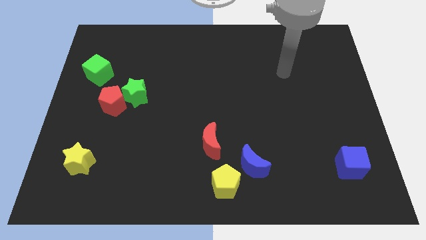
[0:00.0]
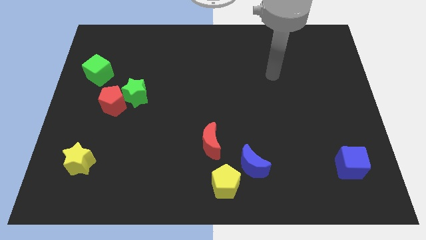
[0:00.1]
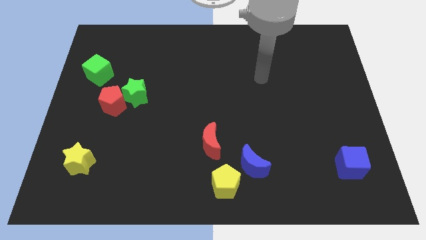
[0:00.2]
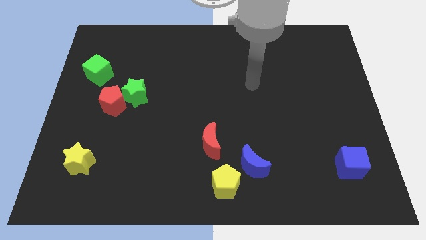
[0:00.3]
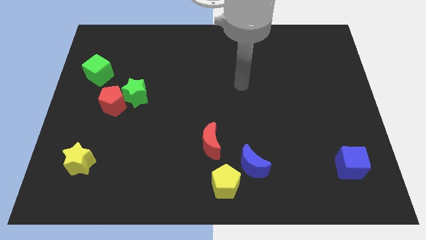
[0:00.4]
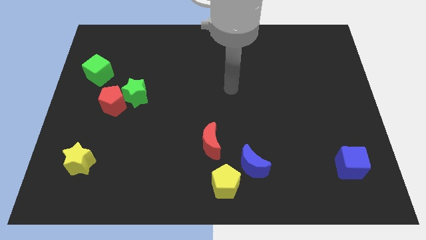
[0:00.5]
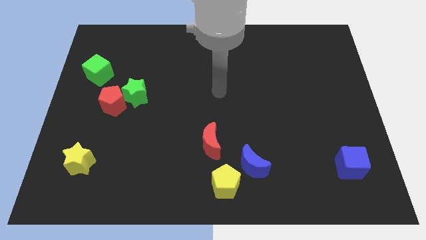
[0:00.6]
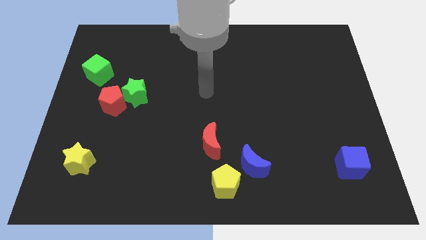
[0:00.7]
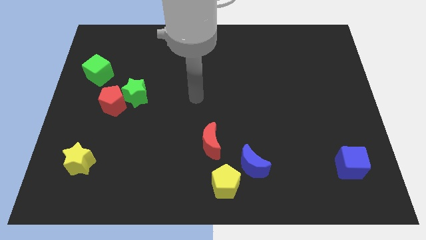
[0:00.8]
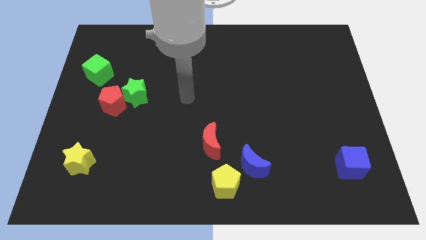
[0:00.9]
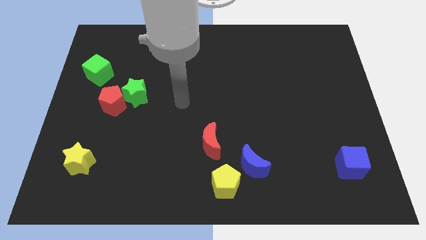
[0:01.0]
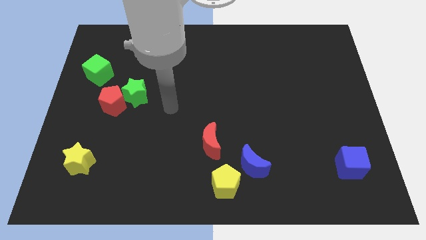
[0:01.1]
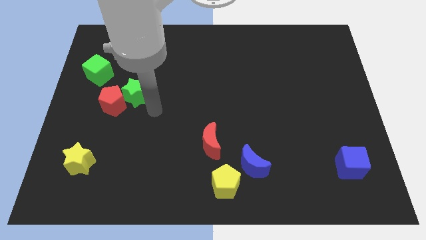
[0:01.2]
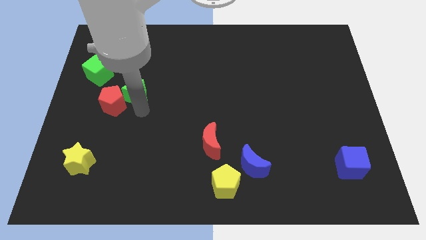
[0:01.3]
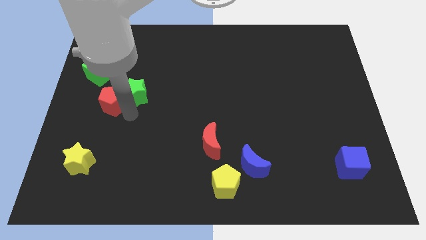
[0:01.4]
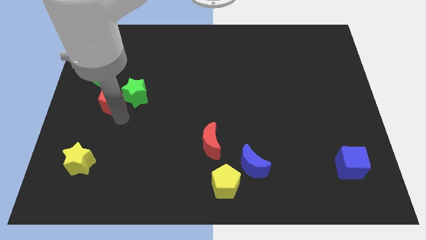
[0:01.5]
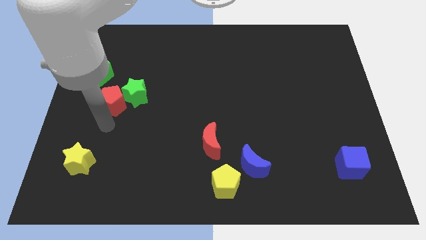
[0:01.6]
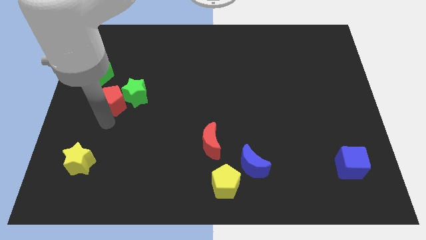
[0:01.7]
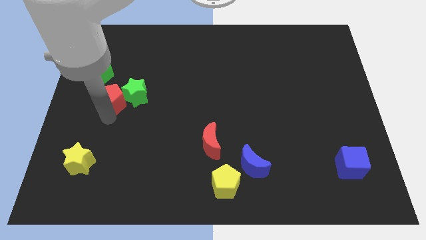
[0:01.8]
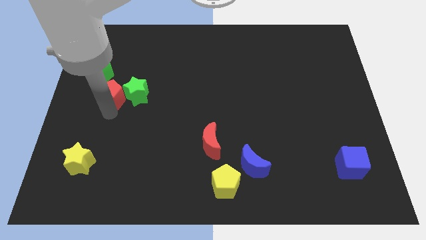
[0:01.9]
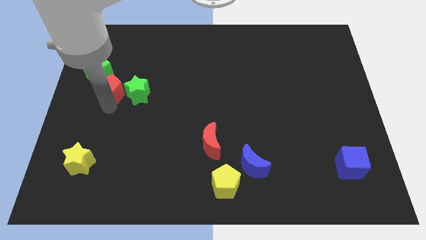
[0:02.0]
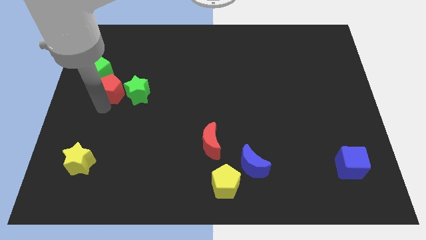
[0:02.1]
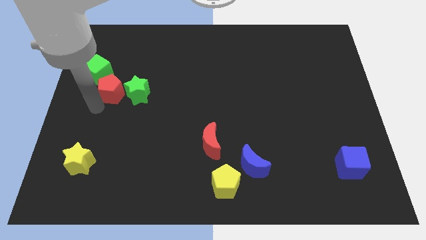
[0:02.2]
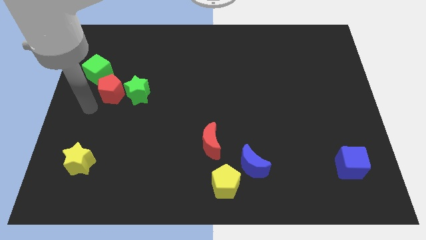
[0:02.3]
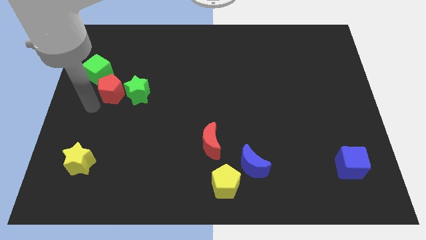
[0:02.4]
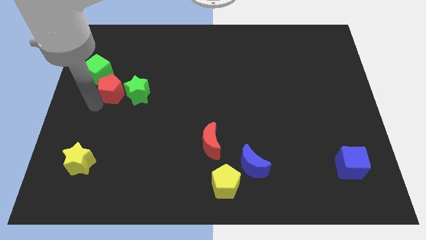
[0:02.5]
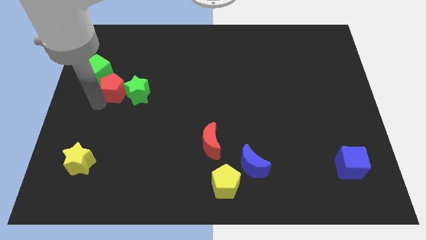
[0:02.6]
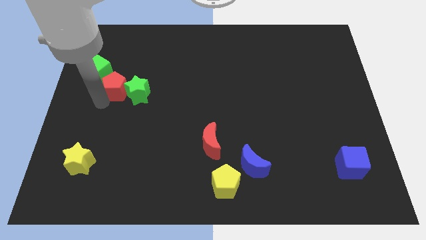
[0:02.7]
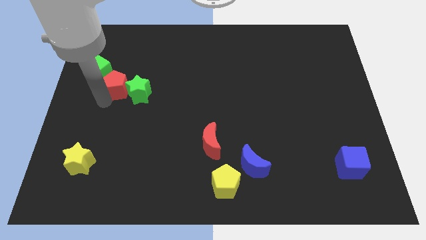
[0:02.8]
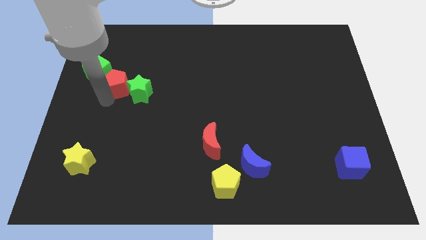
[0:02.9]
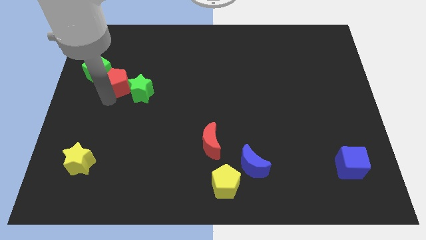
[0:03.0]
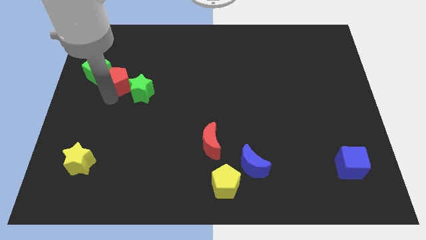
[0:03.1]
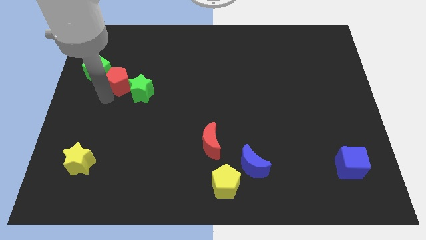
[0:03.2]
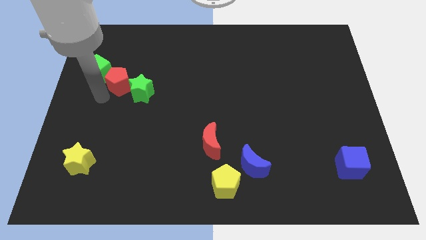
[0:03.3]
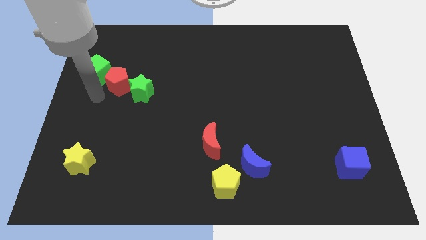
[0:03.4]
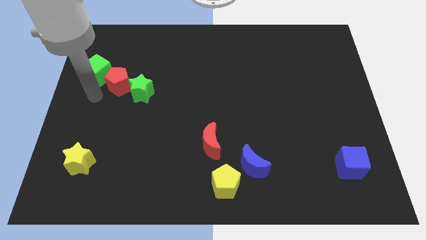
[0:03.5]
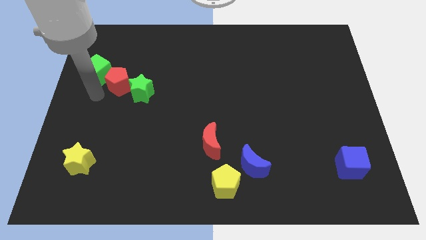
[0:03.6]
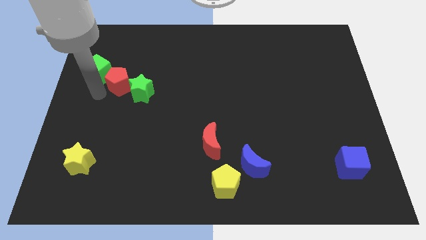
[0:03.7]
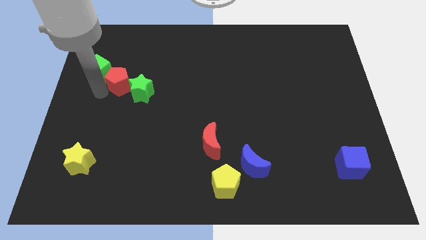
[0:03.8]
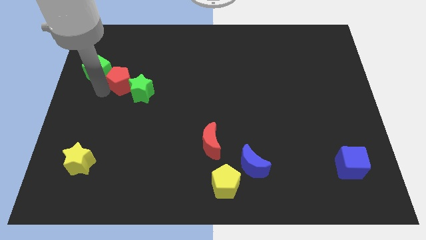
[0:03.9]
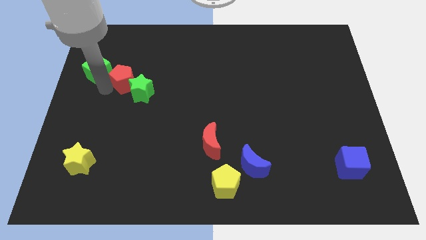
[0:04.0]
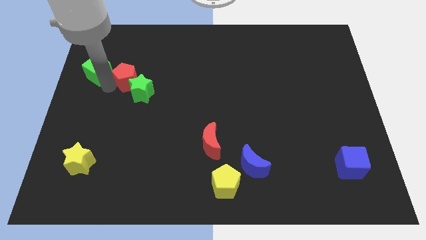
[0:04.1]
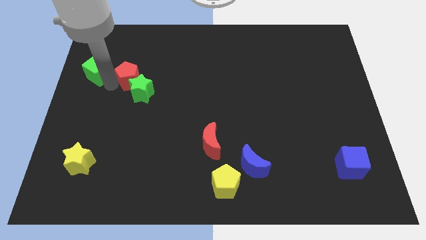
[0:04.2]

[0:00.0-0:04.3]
slide the red pentagon diagonally upwards and right a little bit

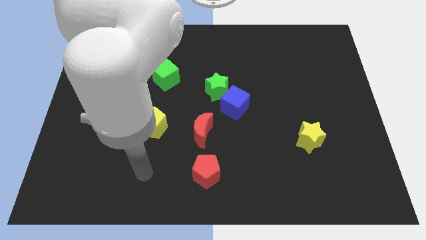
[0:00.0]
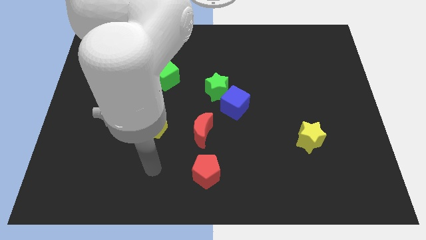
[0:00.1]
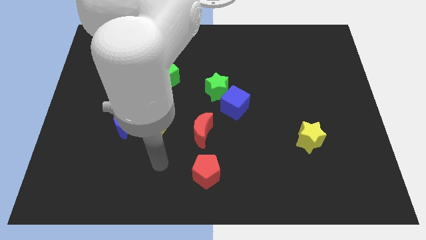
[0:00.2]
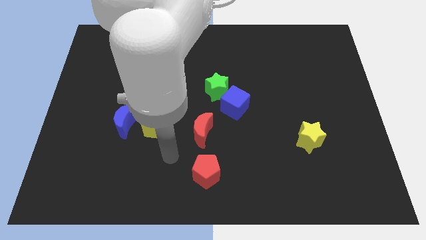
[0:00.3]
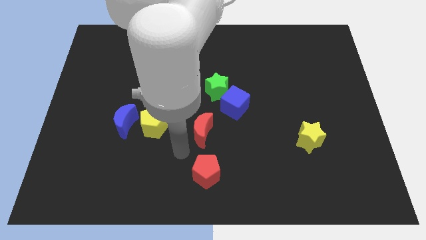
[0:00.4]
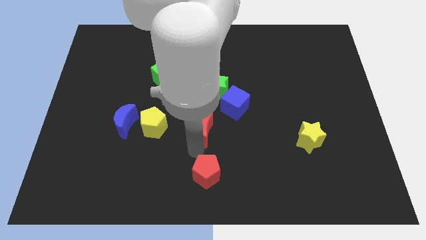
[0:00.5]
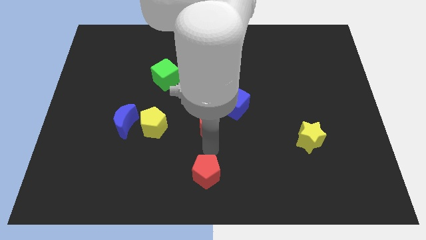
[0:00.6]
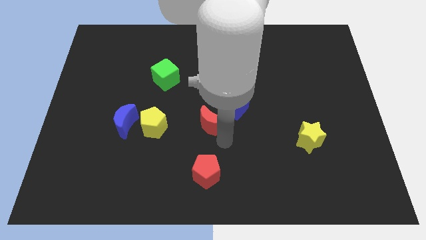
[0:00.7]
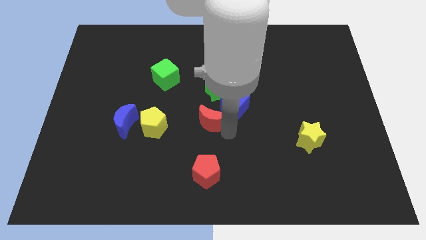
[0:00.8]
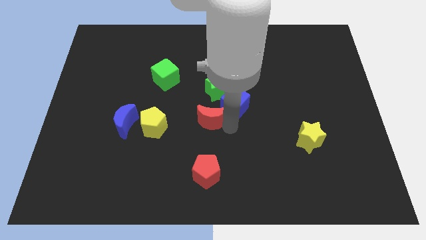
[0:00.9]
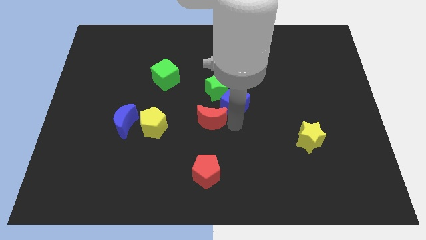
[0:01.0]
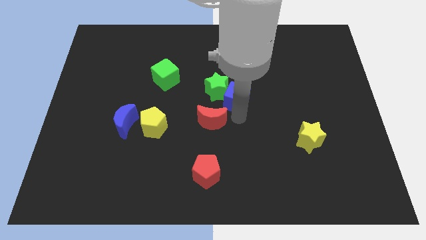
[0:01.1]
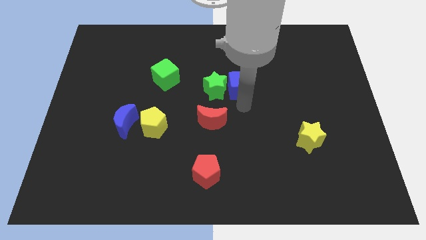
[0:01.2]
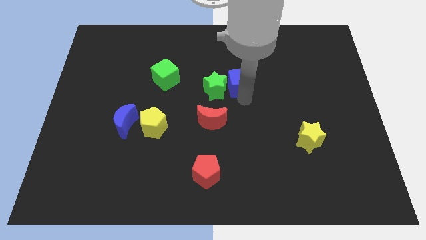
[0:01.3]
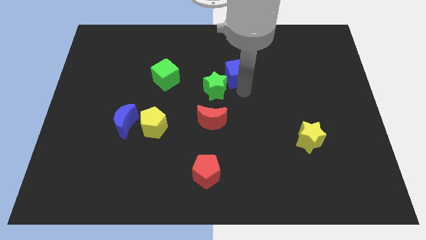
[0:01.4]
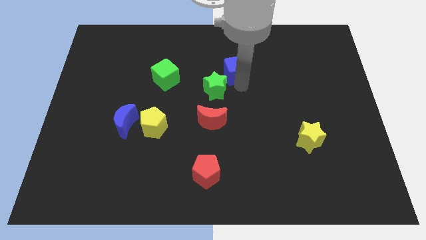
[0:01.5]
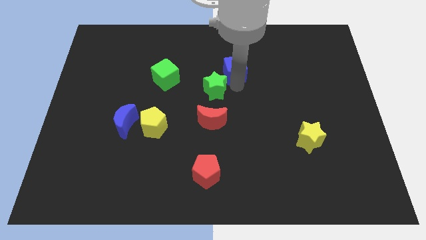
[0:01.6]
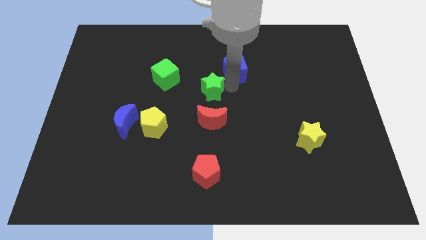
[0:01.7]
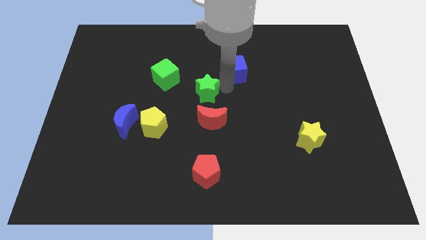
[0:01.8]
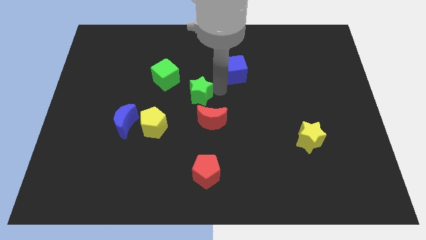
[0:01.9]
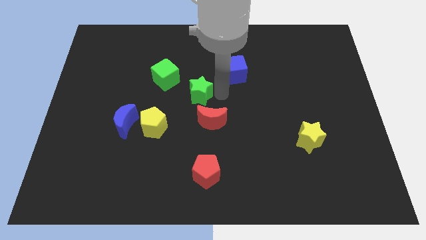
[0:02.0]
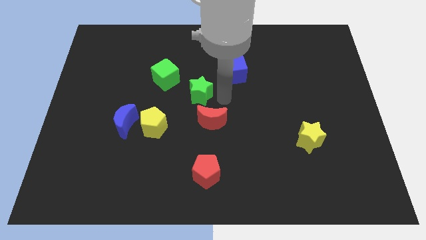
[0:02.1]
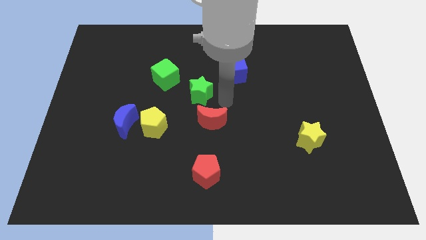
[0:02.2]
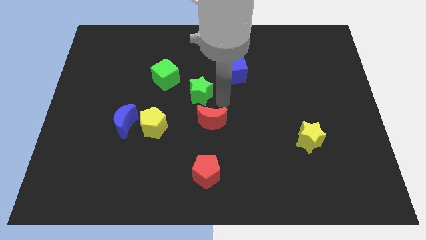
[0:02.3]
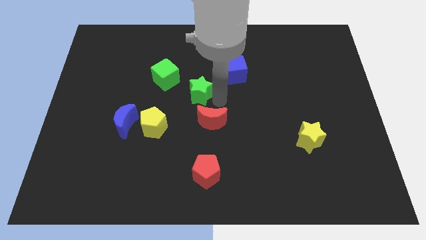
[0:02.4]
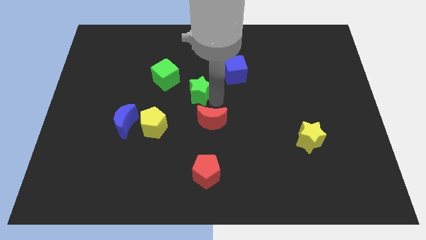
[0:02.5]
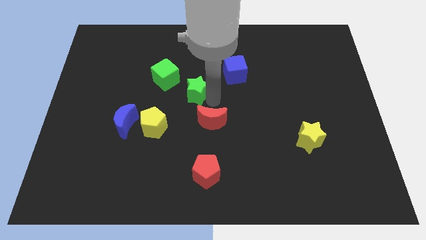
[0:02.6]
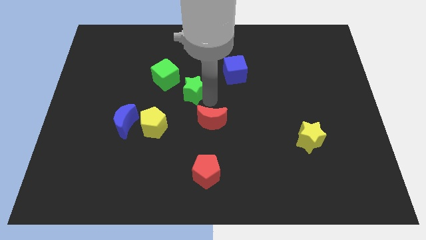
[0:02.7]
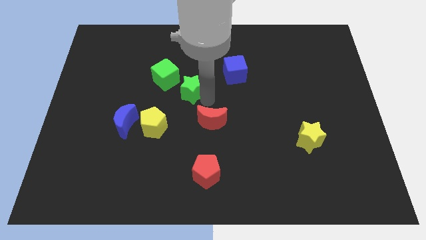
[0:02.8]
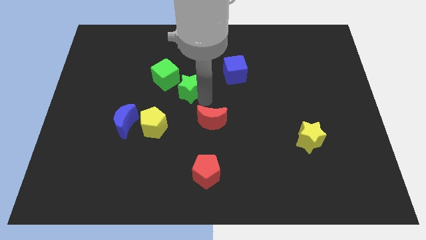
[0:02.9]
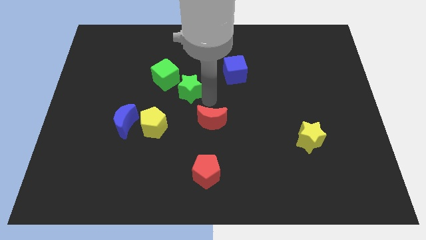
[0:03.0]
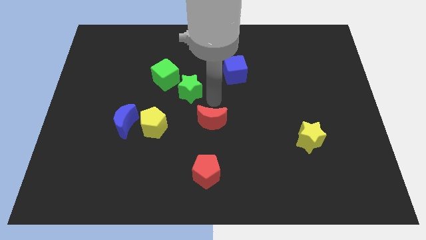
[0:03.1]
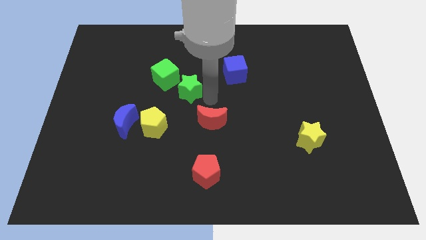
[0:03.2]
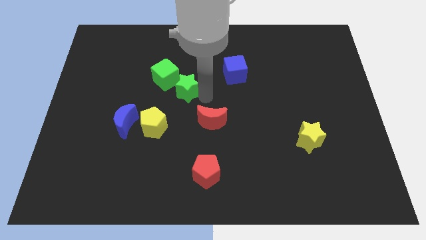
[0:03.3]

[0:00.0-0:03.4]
move the green star somewhat left

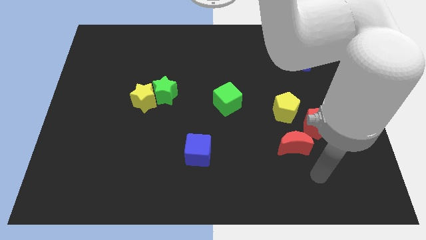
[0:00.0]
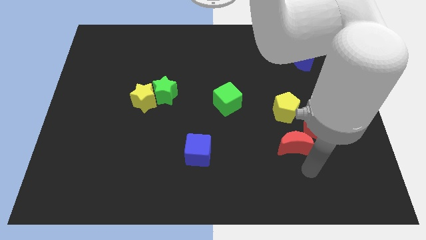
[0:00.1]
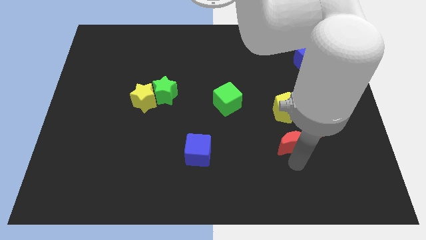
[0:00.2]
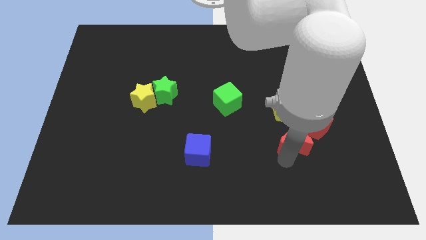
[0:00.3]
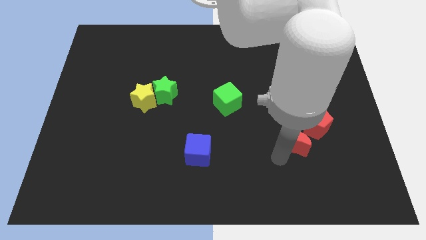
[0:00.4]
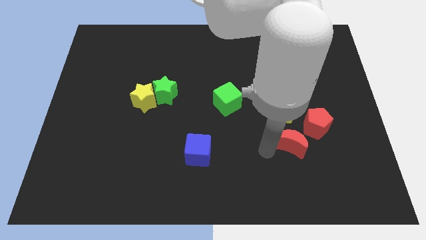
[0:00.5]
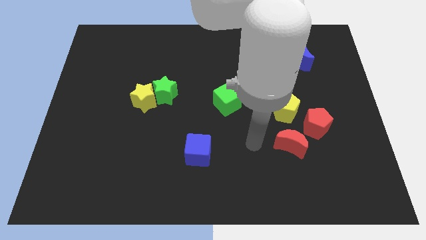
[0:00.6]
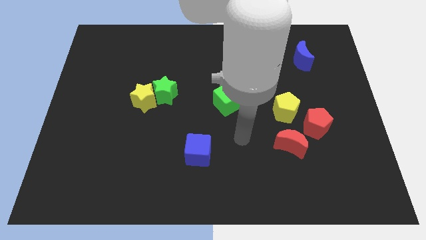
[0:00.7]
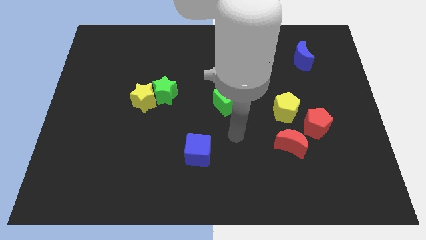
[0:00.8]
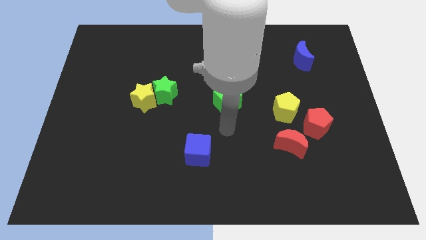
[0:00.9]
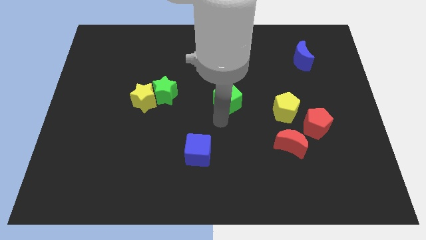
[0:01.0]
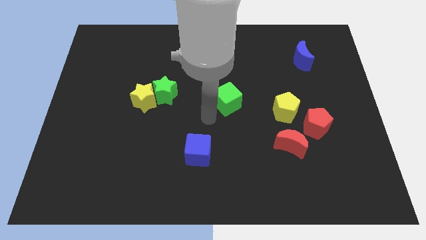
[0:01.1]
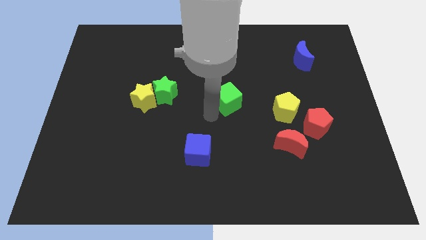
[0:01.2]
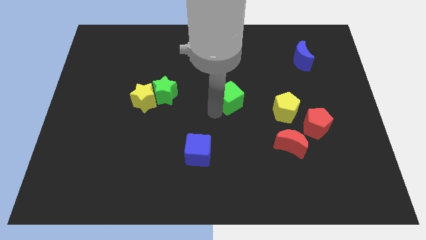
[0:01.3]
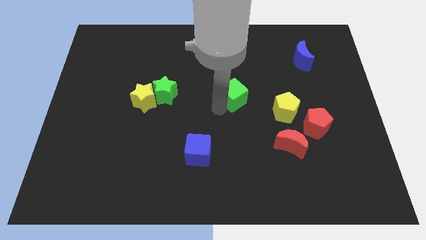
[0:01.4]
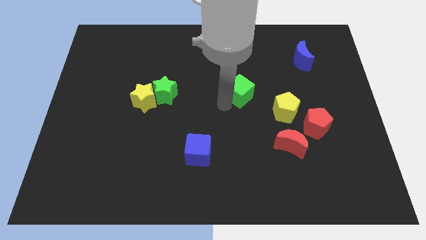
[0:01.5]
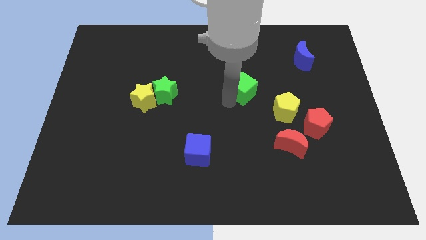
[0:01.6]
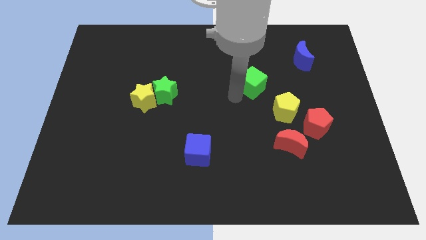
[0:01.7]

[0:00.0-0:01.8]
slightly slide the green cube diagonally up and right
